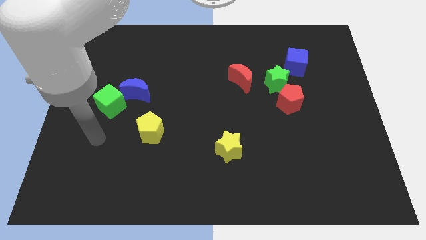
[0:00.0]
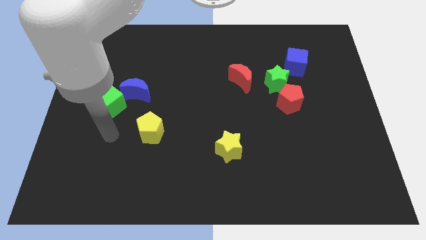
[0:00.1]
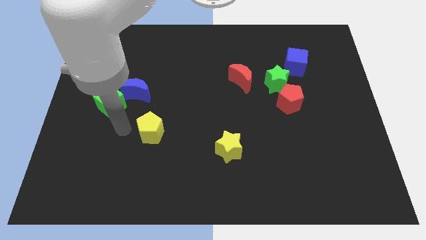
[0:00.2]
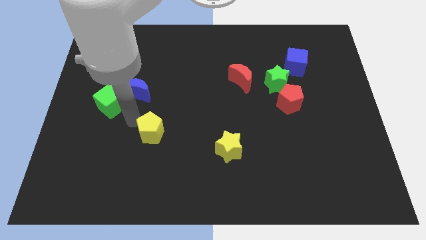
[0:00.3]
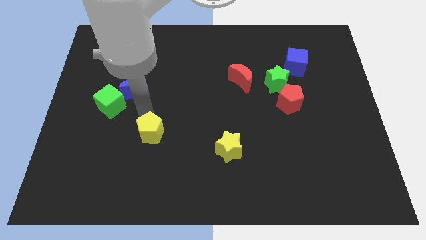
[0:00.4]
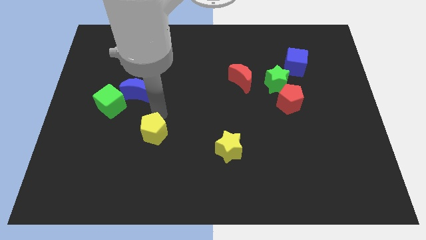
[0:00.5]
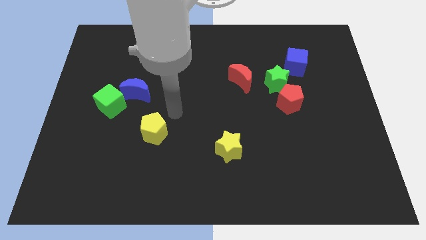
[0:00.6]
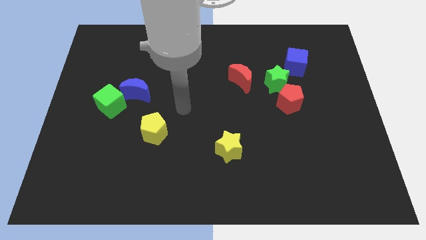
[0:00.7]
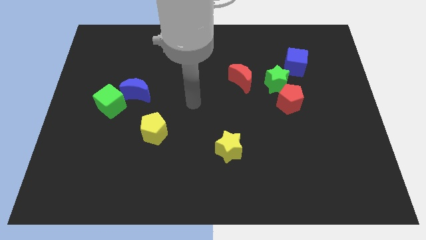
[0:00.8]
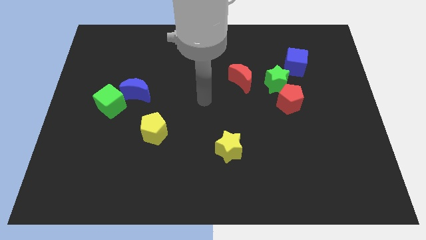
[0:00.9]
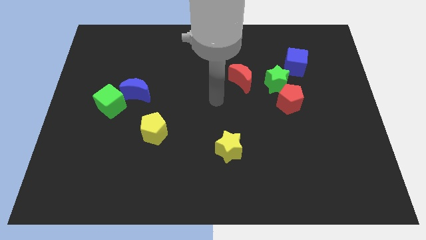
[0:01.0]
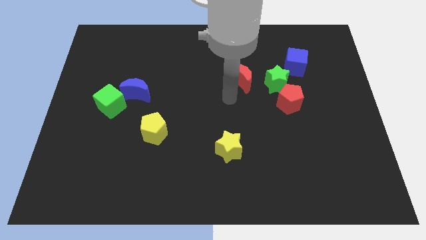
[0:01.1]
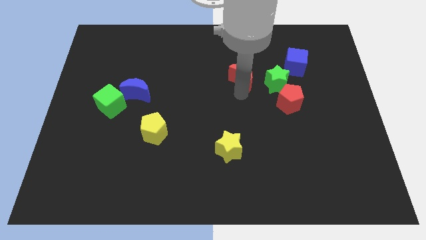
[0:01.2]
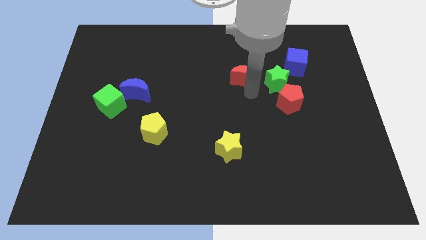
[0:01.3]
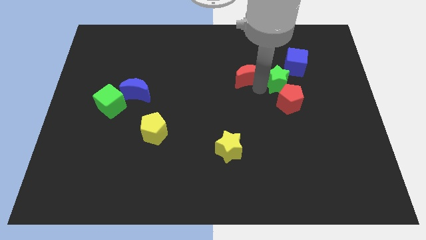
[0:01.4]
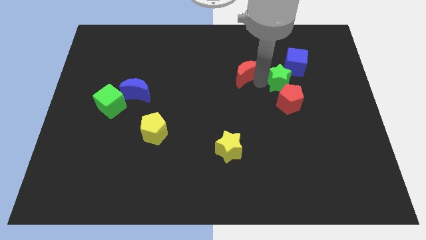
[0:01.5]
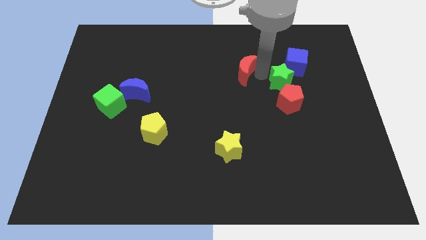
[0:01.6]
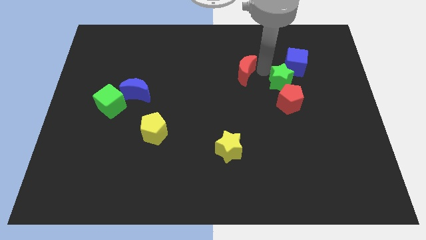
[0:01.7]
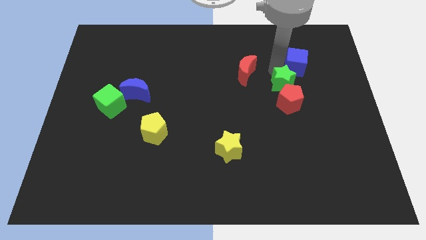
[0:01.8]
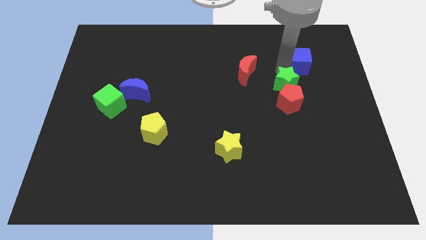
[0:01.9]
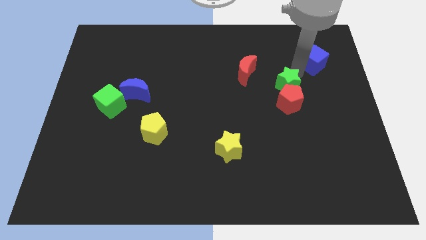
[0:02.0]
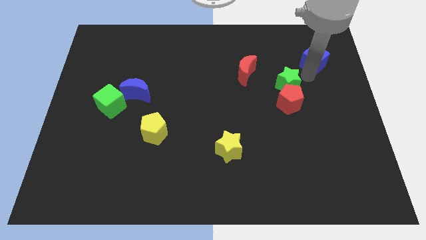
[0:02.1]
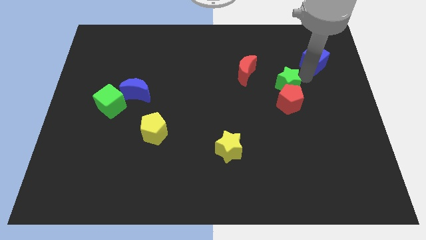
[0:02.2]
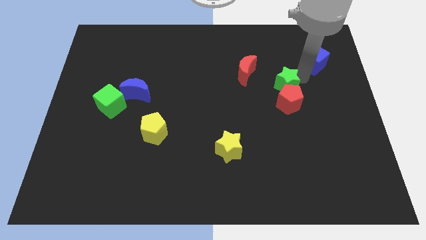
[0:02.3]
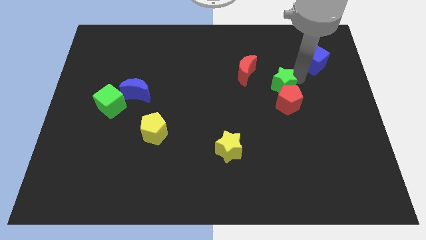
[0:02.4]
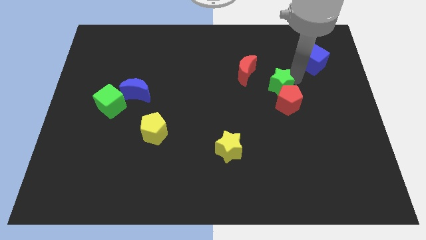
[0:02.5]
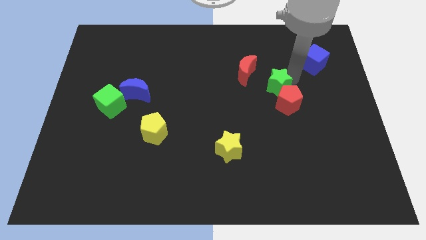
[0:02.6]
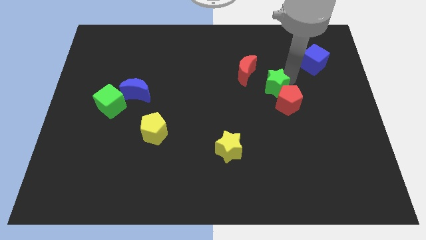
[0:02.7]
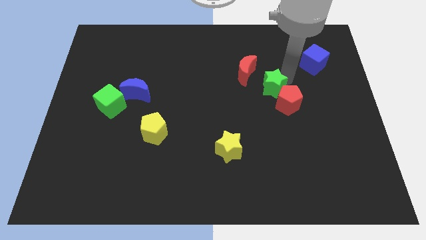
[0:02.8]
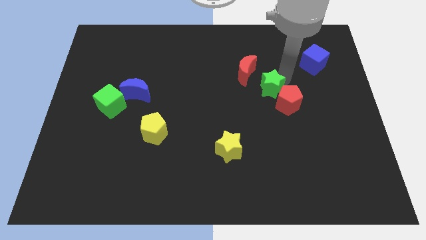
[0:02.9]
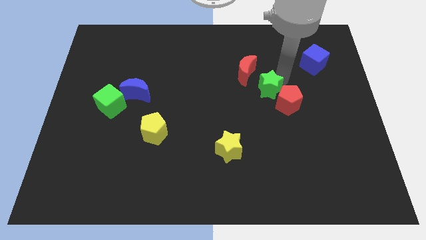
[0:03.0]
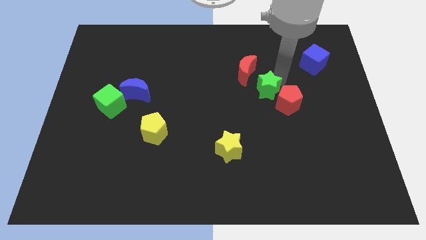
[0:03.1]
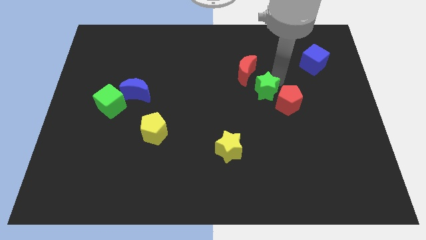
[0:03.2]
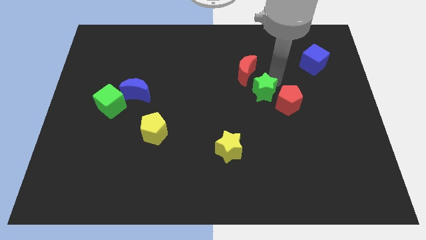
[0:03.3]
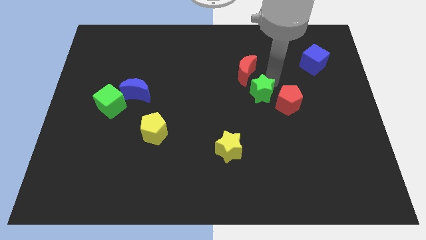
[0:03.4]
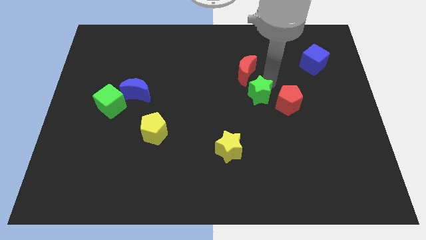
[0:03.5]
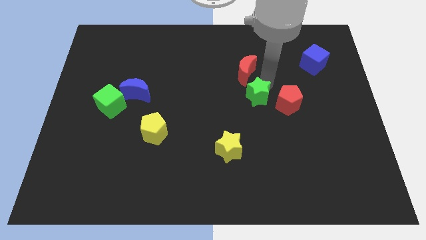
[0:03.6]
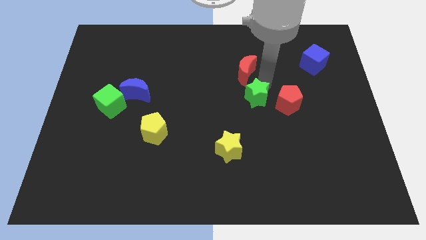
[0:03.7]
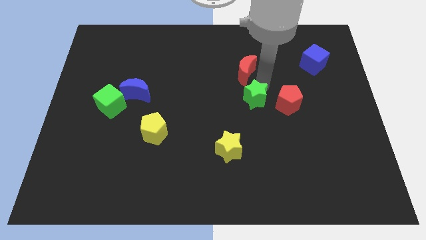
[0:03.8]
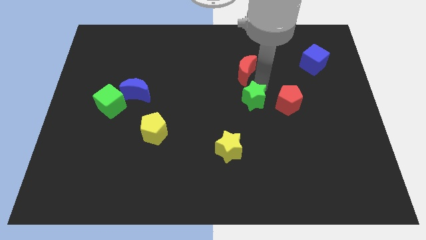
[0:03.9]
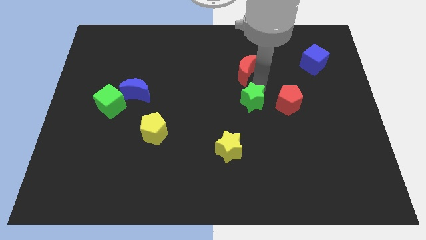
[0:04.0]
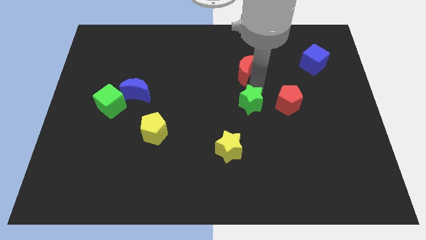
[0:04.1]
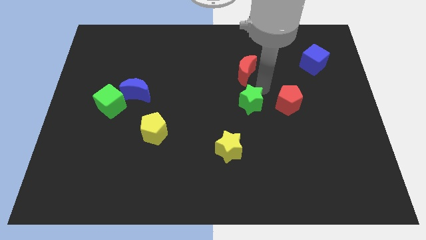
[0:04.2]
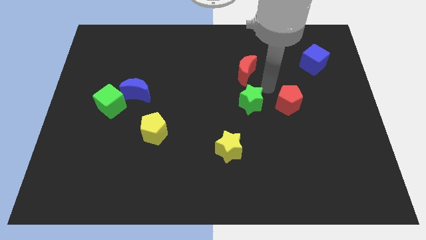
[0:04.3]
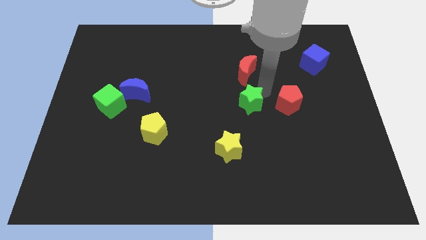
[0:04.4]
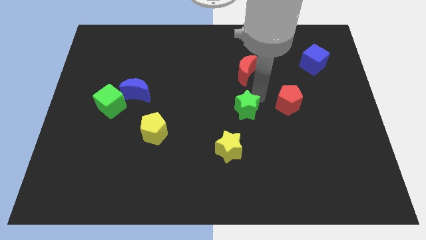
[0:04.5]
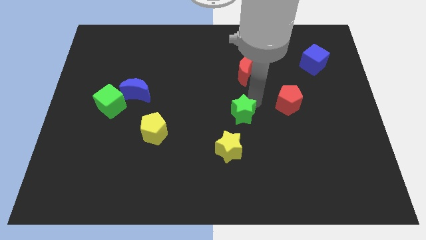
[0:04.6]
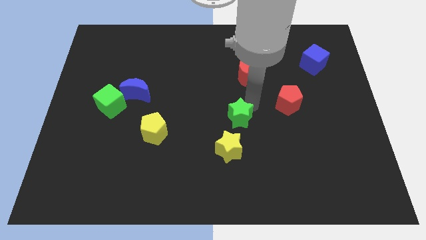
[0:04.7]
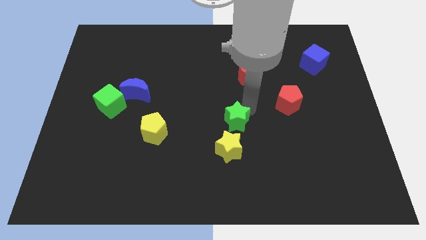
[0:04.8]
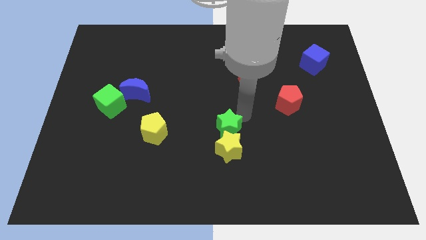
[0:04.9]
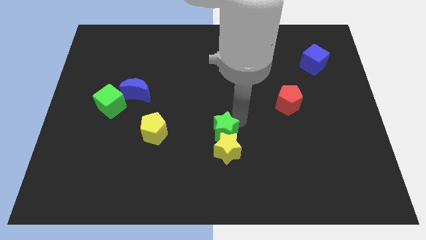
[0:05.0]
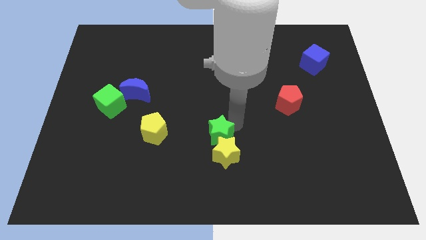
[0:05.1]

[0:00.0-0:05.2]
push the green star downwards and left diagonally

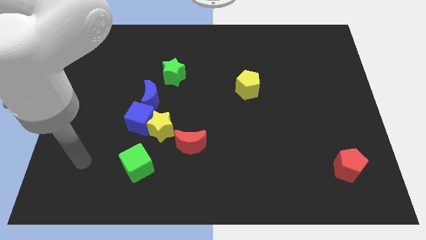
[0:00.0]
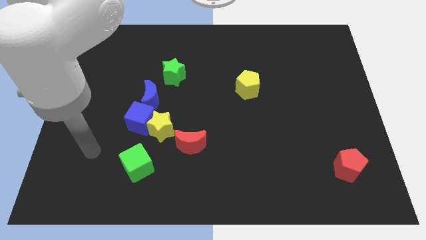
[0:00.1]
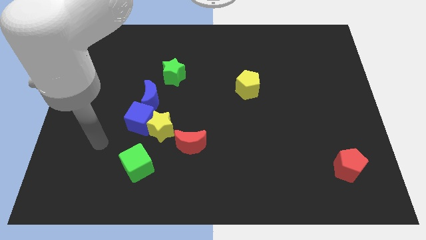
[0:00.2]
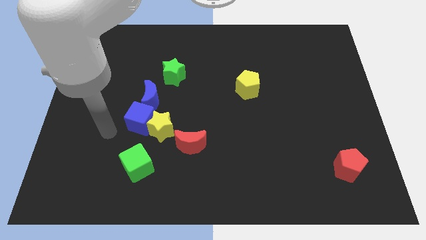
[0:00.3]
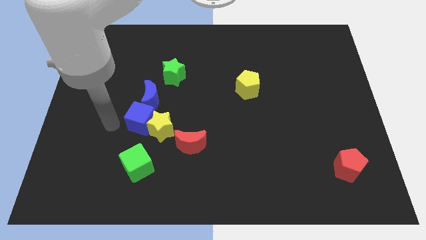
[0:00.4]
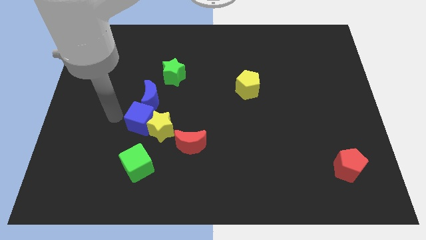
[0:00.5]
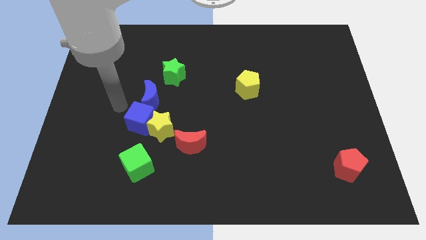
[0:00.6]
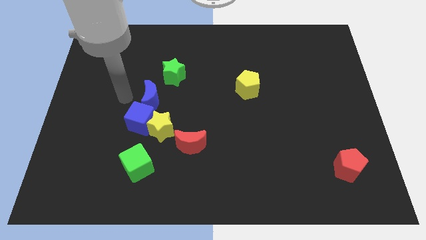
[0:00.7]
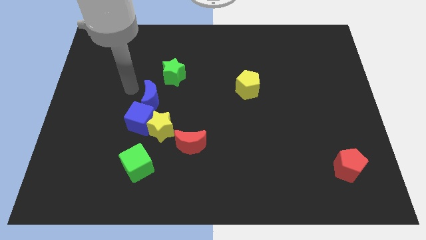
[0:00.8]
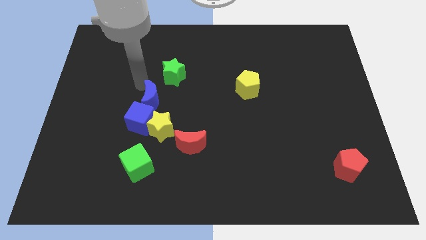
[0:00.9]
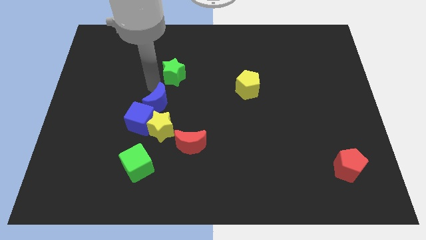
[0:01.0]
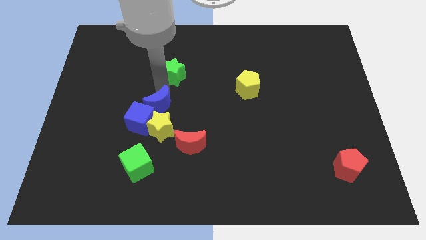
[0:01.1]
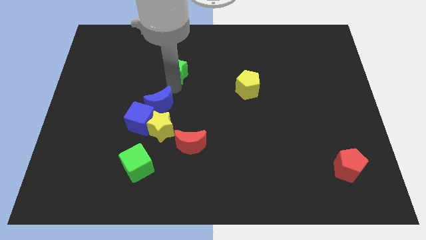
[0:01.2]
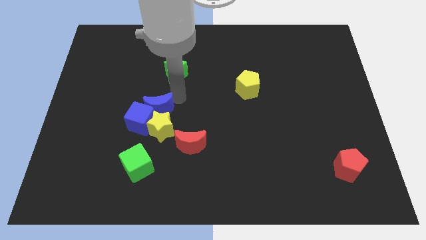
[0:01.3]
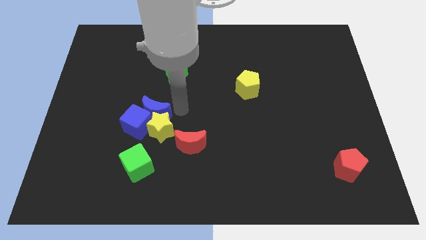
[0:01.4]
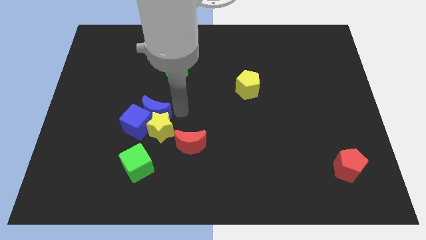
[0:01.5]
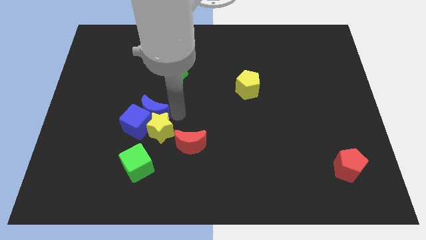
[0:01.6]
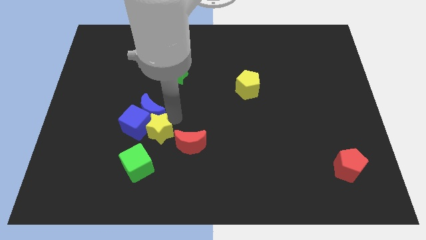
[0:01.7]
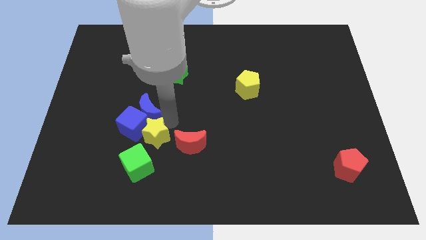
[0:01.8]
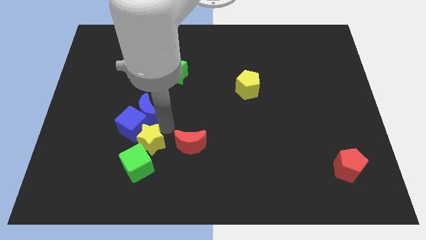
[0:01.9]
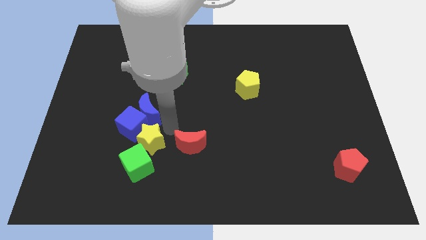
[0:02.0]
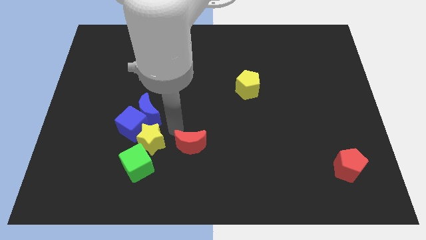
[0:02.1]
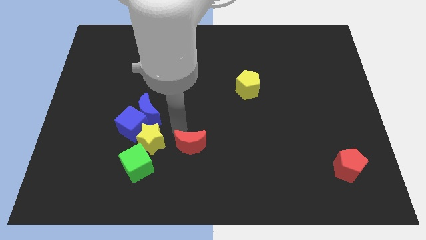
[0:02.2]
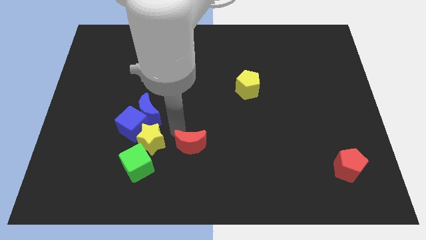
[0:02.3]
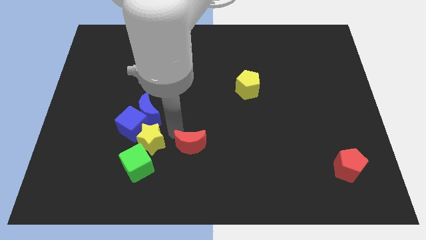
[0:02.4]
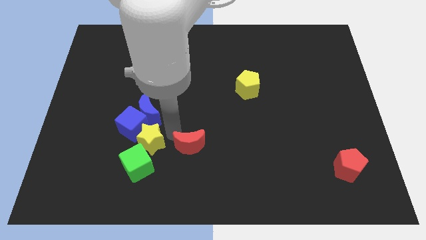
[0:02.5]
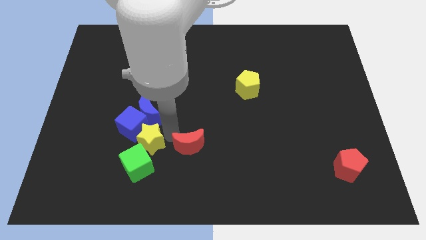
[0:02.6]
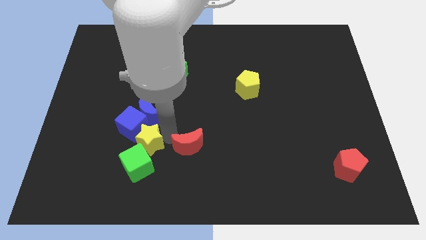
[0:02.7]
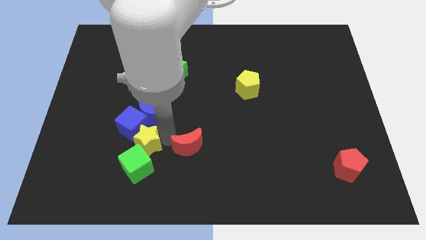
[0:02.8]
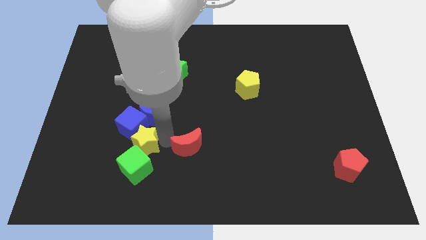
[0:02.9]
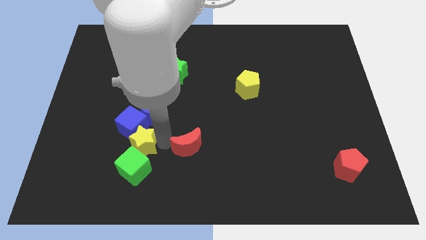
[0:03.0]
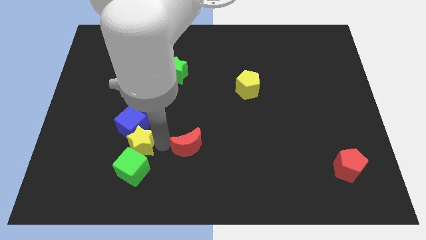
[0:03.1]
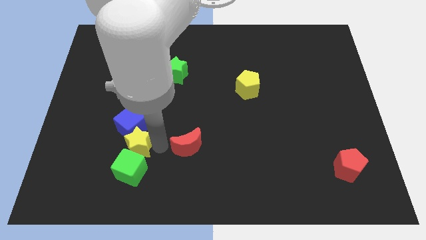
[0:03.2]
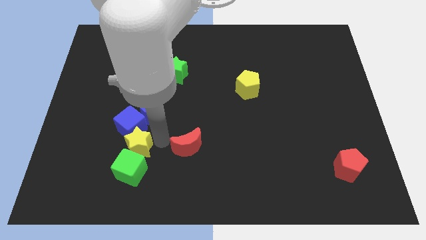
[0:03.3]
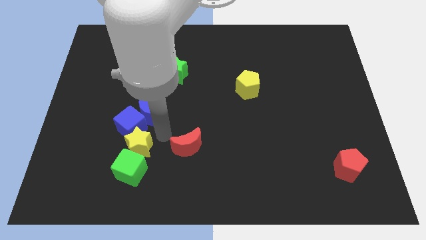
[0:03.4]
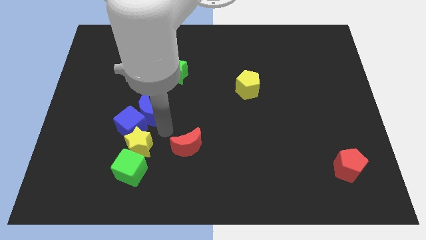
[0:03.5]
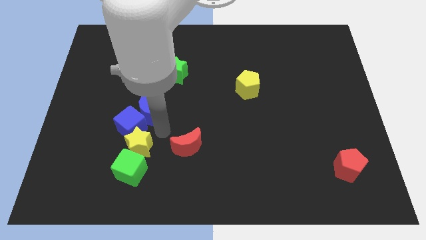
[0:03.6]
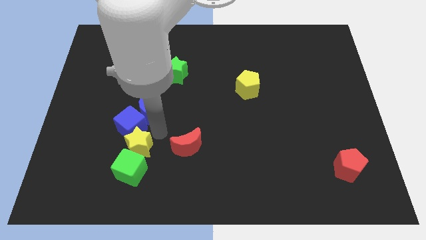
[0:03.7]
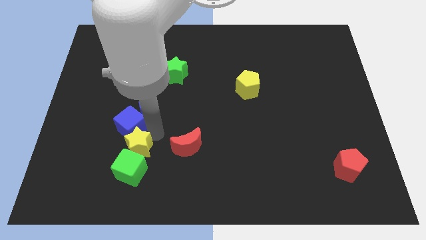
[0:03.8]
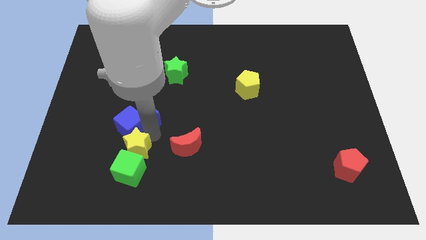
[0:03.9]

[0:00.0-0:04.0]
move the yellow star downwards and left slightly
